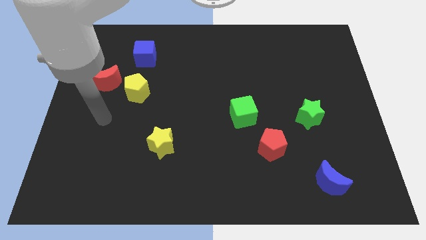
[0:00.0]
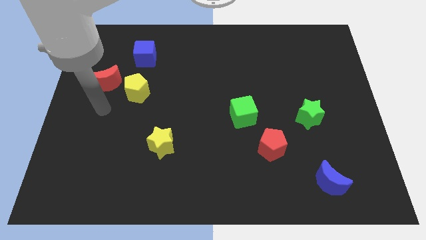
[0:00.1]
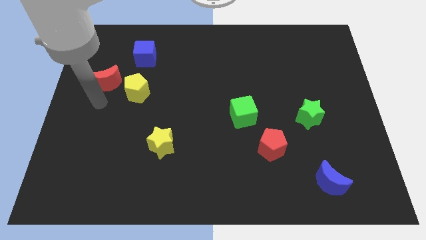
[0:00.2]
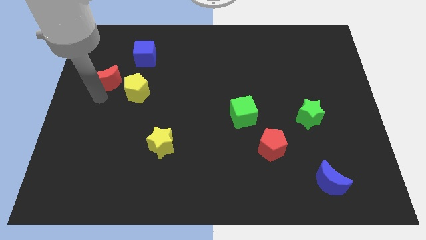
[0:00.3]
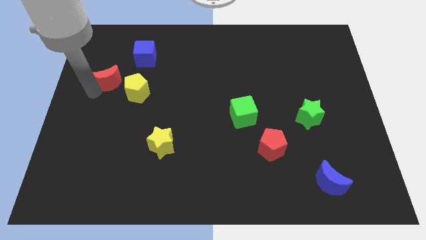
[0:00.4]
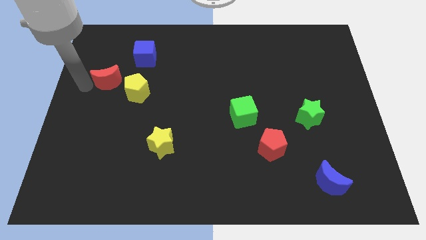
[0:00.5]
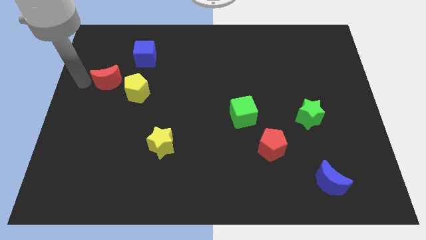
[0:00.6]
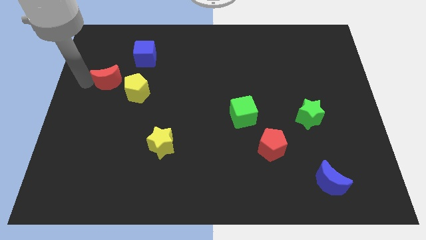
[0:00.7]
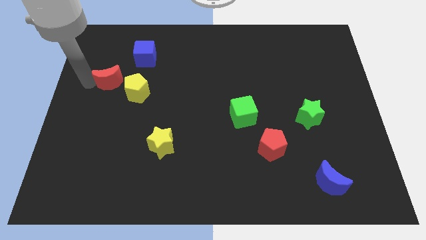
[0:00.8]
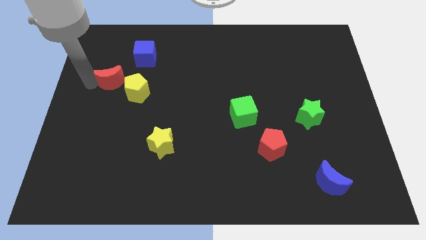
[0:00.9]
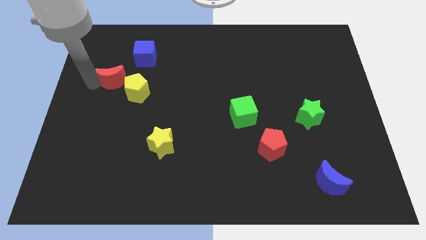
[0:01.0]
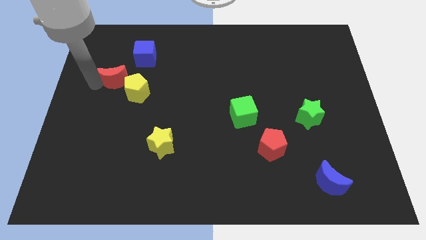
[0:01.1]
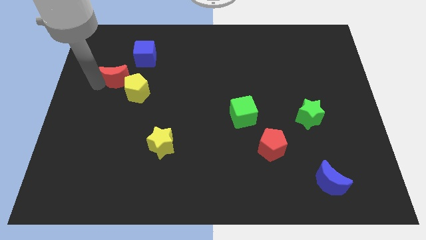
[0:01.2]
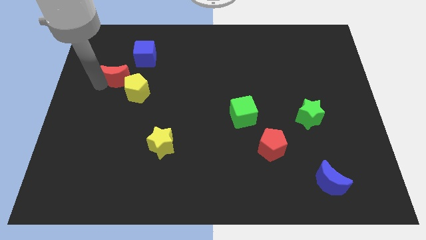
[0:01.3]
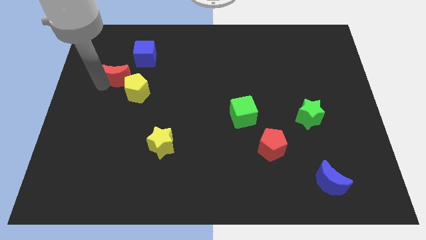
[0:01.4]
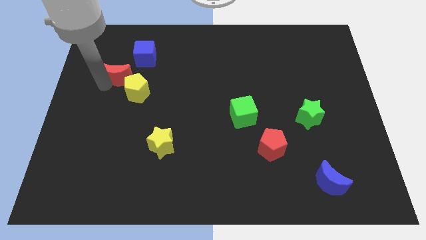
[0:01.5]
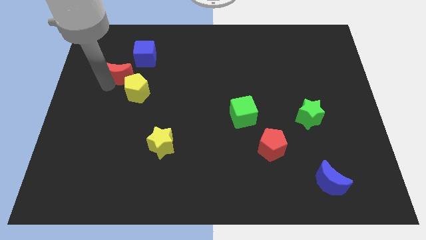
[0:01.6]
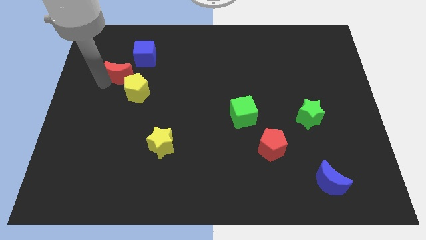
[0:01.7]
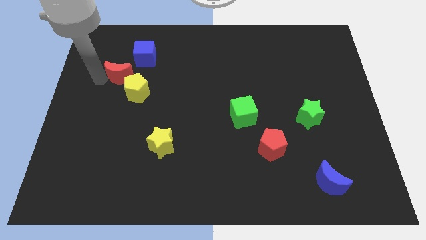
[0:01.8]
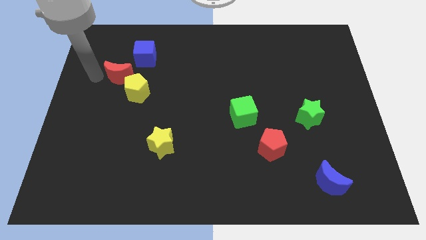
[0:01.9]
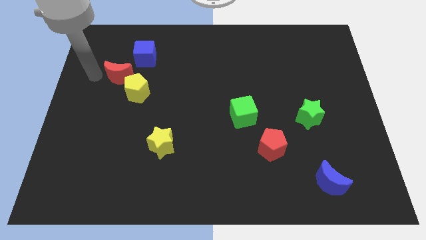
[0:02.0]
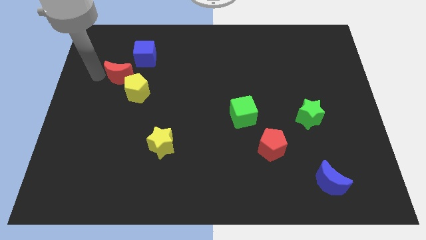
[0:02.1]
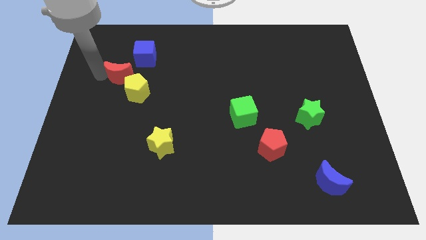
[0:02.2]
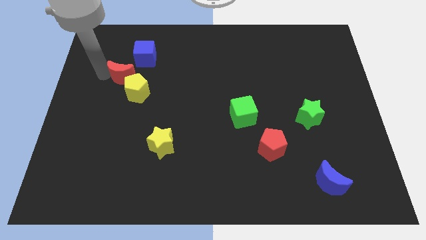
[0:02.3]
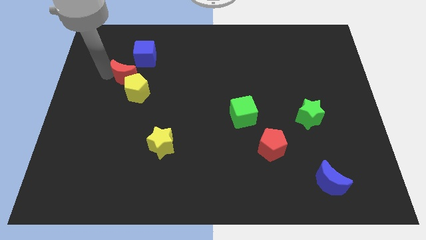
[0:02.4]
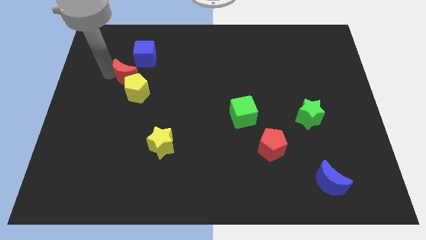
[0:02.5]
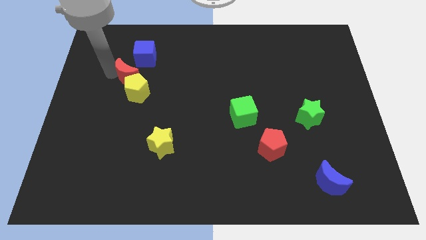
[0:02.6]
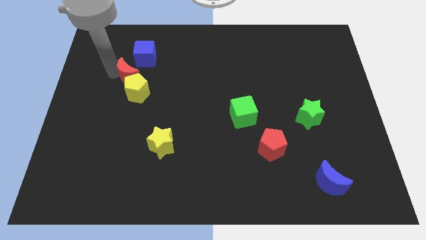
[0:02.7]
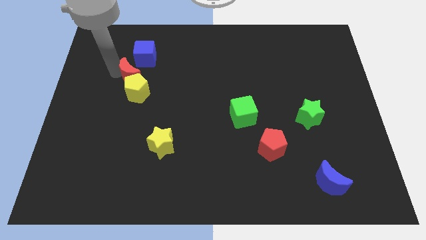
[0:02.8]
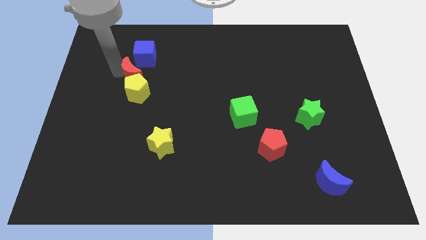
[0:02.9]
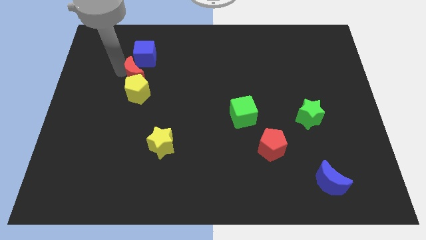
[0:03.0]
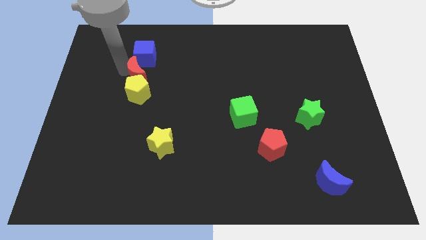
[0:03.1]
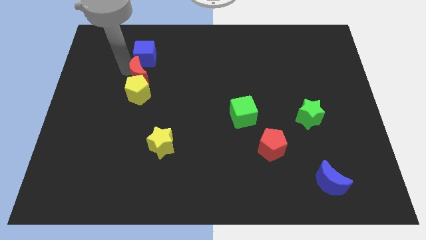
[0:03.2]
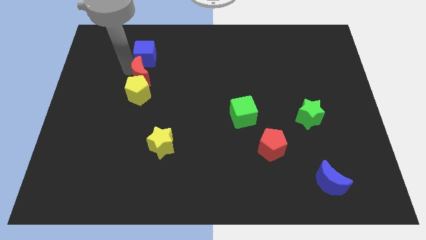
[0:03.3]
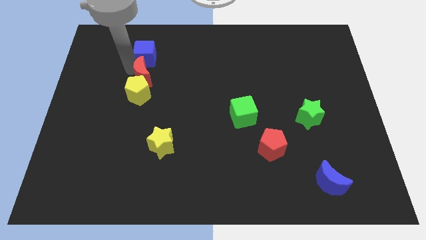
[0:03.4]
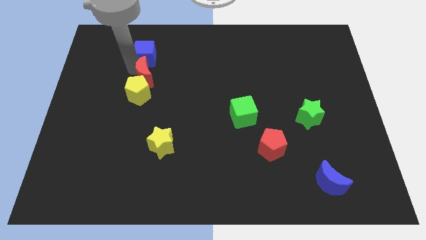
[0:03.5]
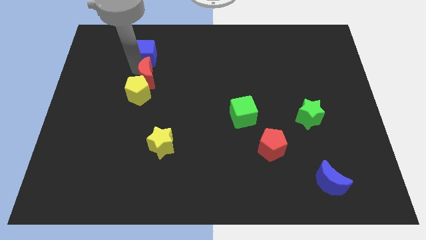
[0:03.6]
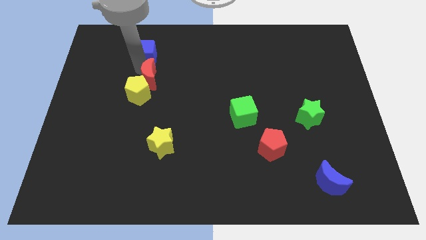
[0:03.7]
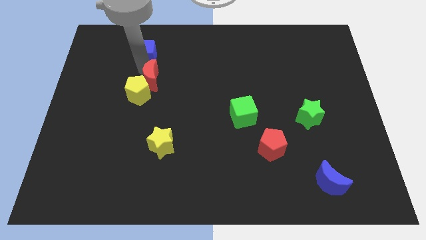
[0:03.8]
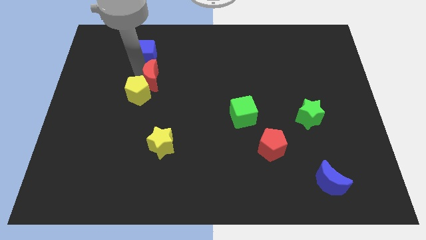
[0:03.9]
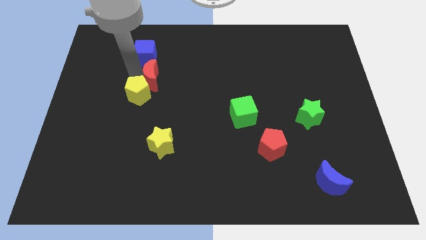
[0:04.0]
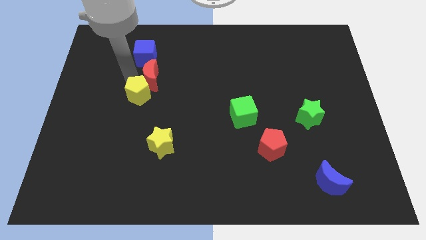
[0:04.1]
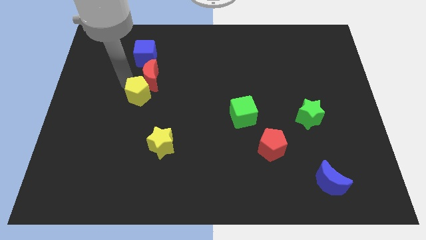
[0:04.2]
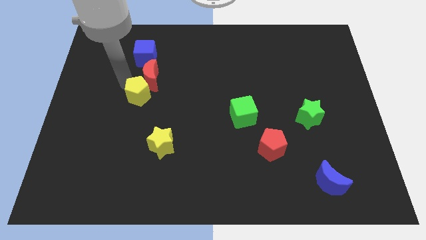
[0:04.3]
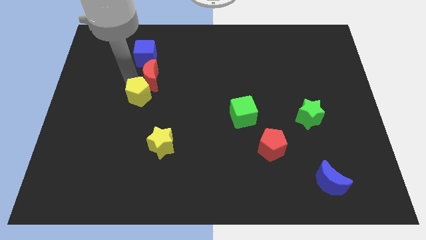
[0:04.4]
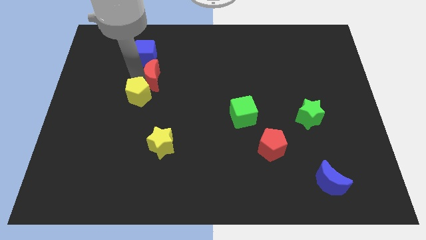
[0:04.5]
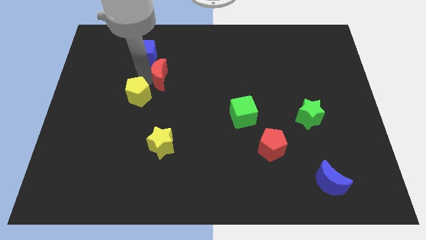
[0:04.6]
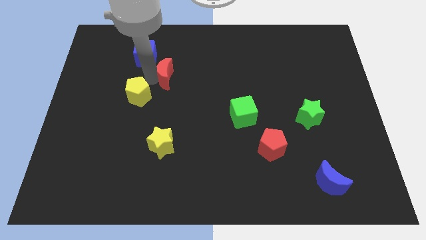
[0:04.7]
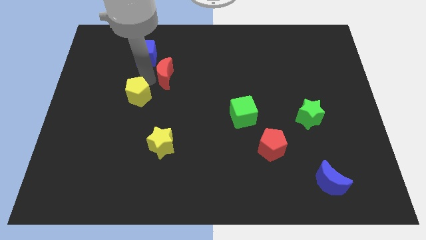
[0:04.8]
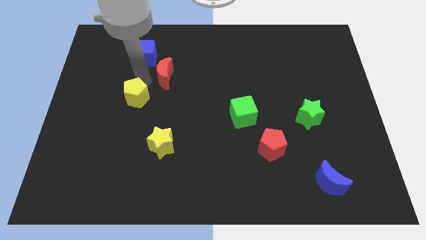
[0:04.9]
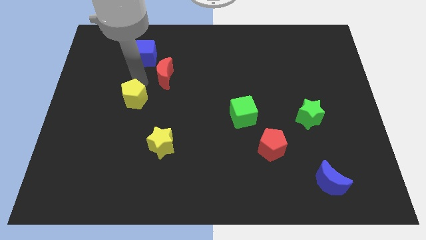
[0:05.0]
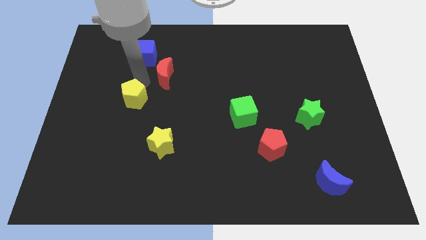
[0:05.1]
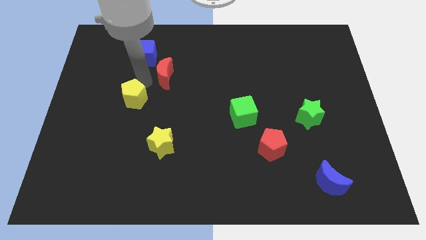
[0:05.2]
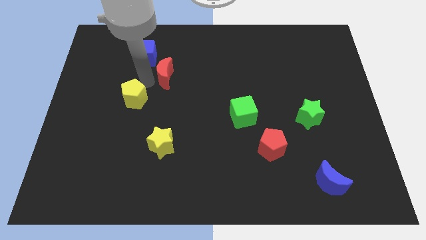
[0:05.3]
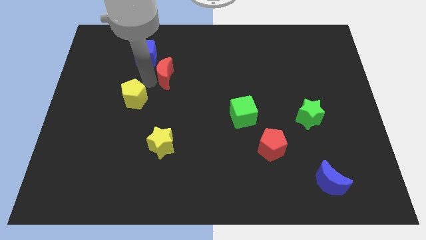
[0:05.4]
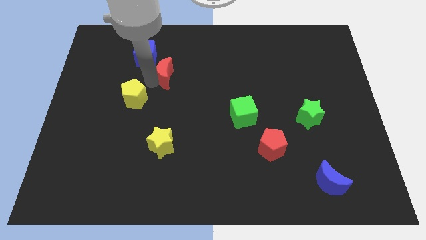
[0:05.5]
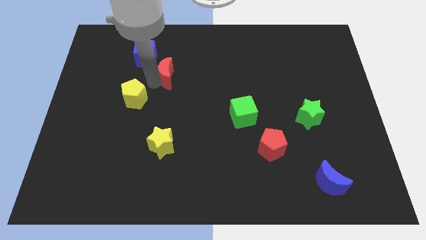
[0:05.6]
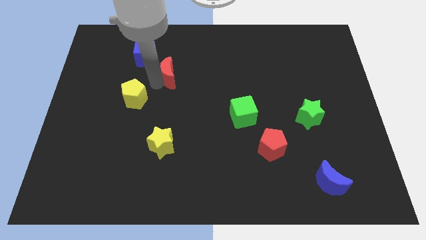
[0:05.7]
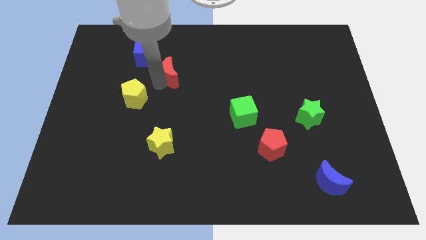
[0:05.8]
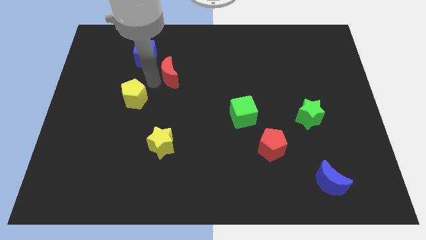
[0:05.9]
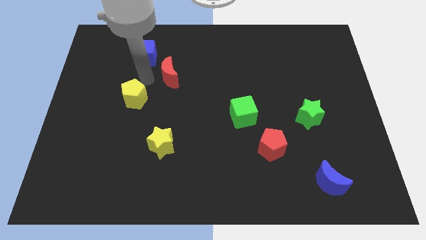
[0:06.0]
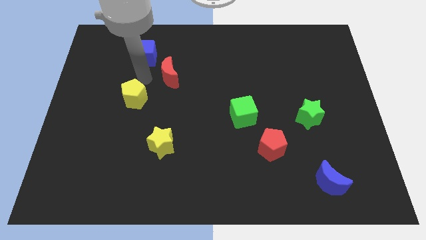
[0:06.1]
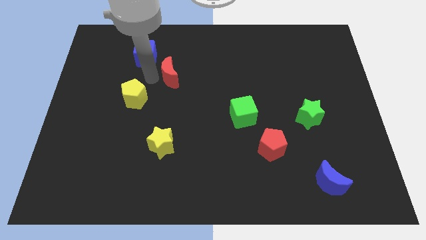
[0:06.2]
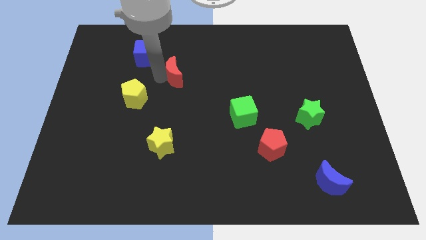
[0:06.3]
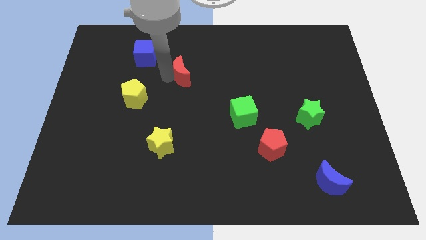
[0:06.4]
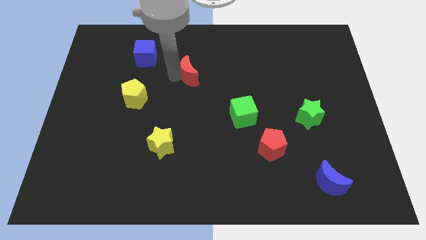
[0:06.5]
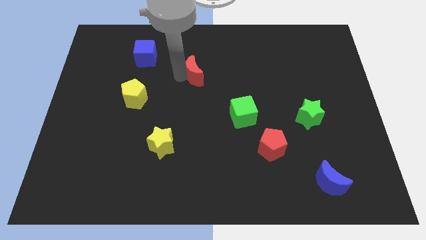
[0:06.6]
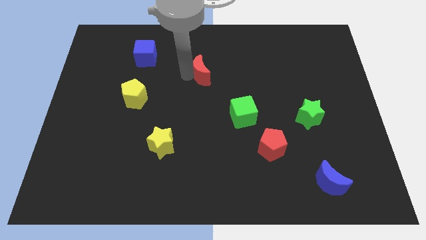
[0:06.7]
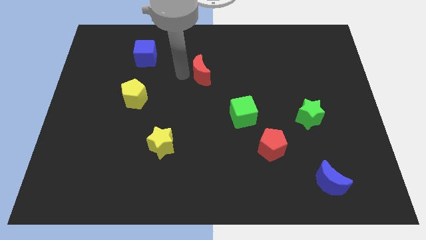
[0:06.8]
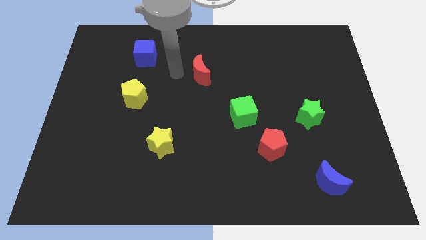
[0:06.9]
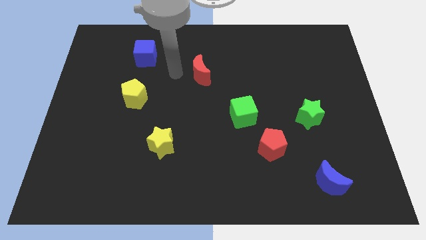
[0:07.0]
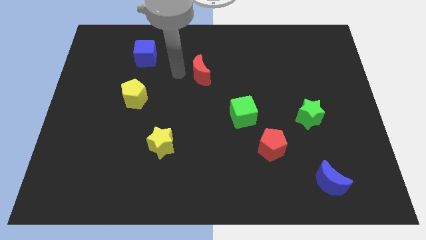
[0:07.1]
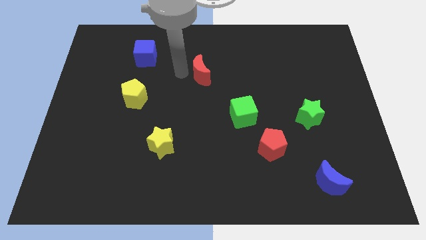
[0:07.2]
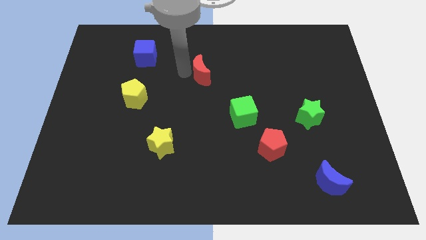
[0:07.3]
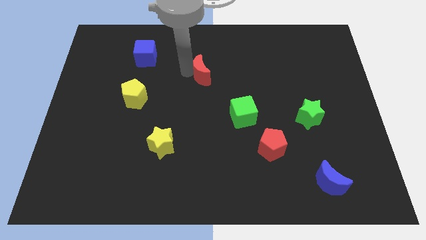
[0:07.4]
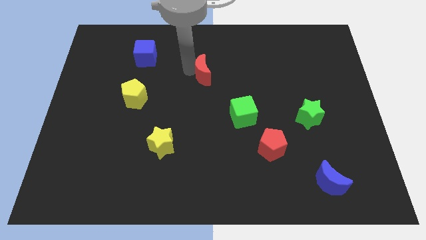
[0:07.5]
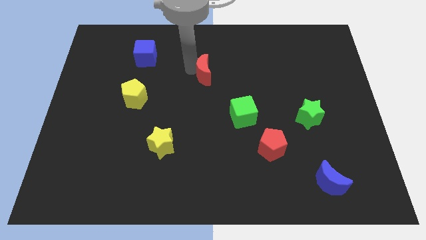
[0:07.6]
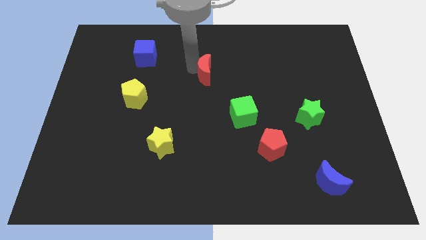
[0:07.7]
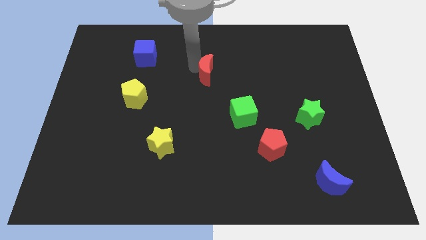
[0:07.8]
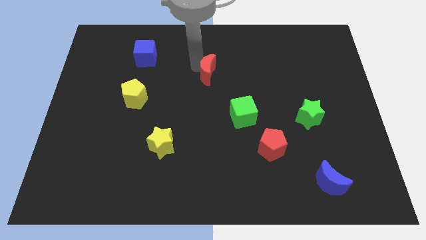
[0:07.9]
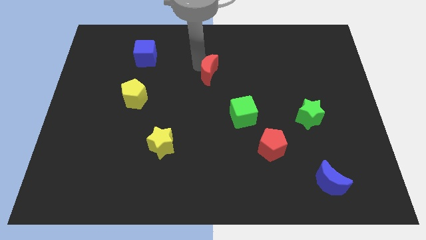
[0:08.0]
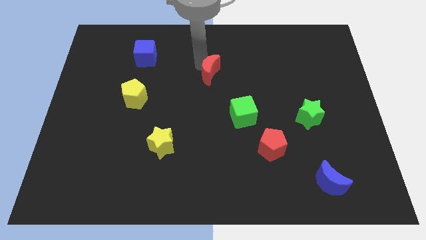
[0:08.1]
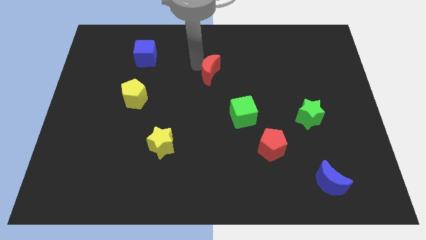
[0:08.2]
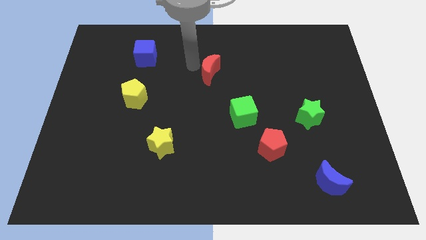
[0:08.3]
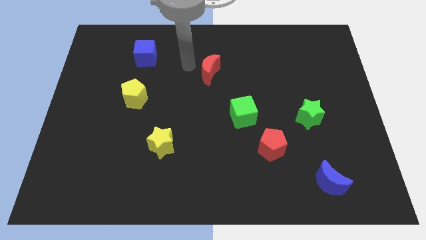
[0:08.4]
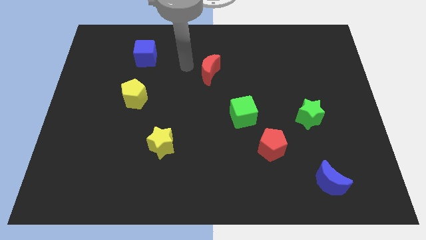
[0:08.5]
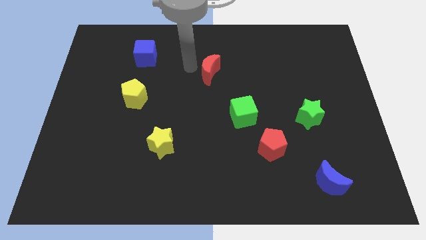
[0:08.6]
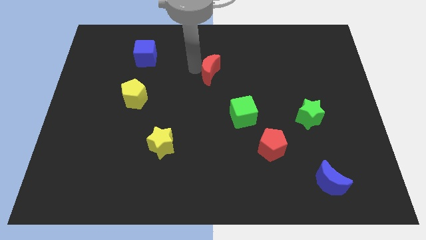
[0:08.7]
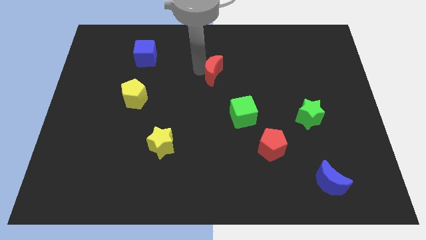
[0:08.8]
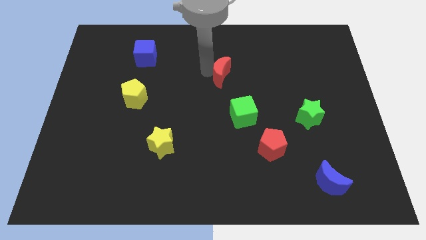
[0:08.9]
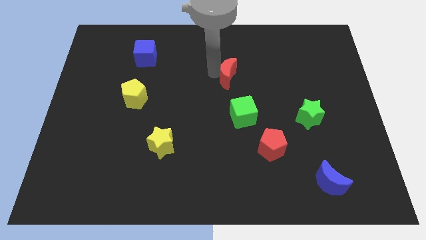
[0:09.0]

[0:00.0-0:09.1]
slide the red moon to the top side of the green cube
